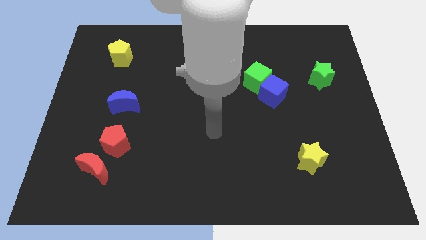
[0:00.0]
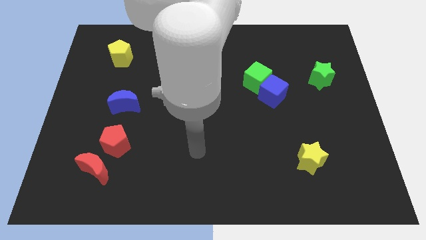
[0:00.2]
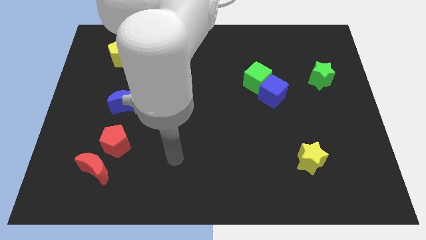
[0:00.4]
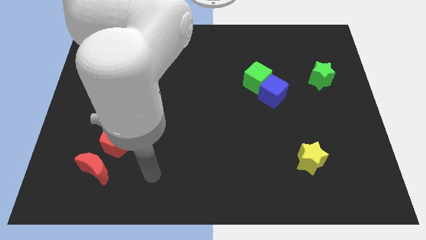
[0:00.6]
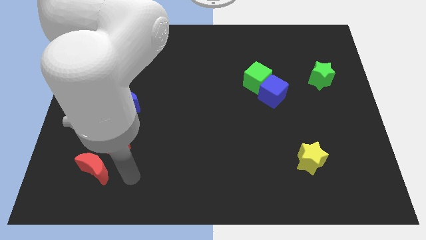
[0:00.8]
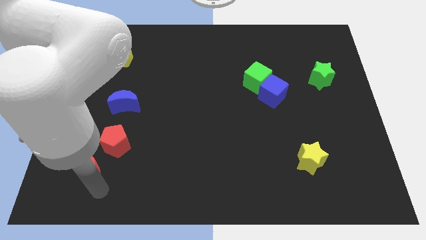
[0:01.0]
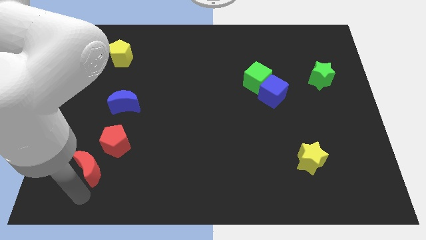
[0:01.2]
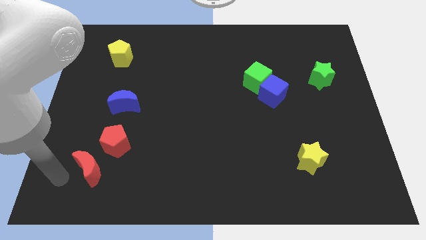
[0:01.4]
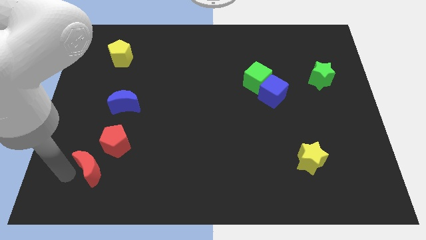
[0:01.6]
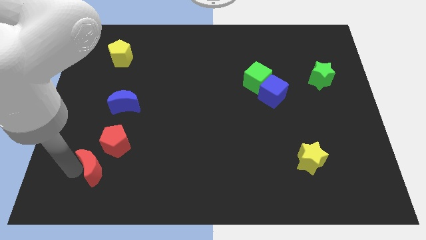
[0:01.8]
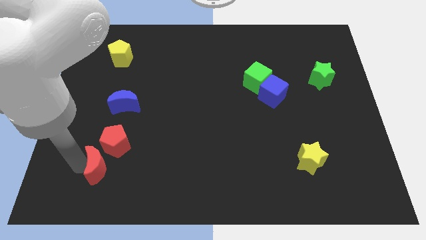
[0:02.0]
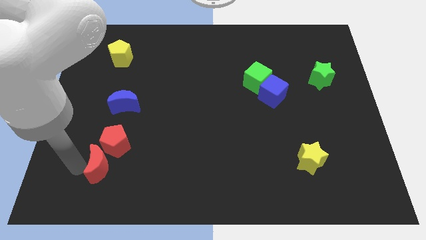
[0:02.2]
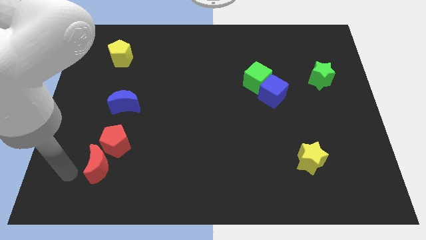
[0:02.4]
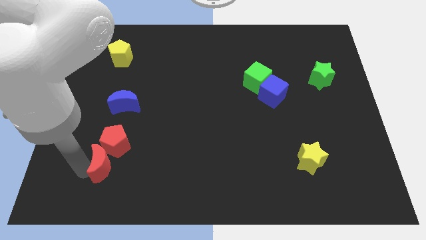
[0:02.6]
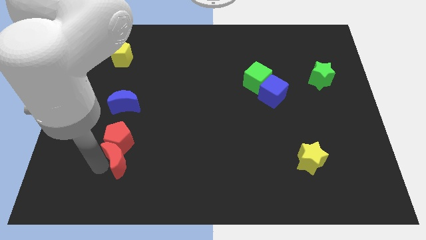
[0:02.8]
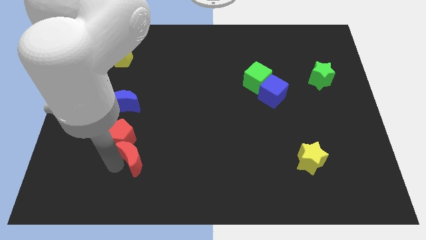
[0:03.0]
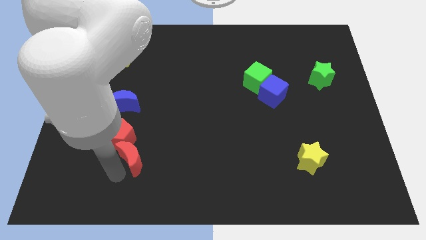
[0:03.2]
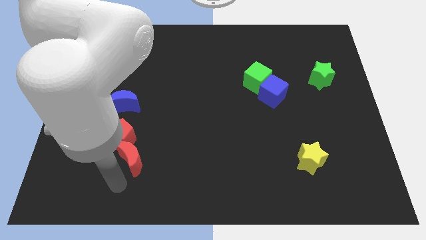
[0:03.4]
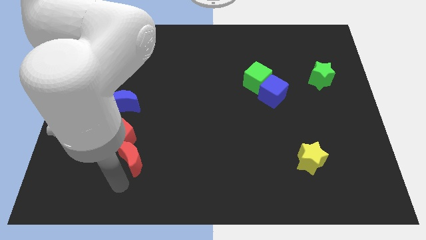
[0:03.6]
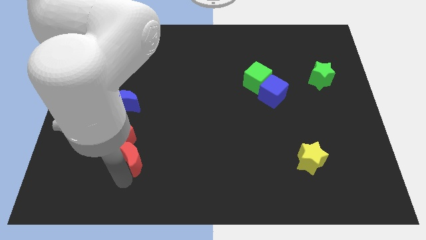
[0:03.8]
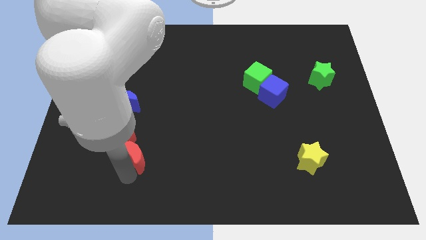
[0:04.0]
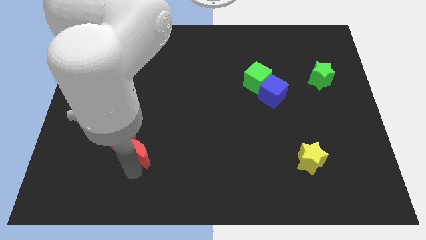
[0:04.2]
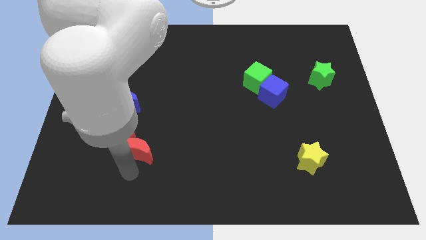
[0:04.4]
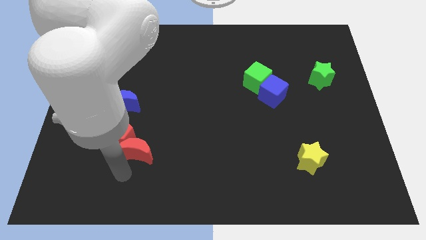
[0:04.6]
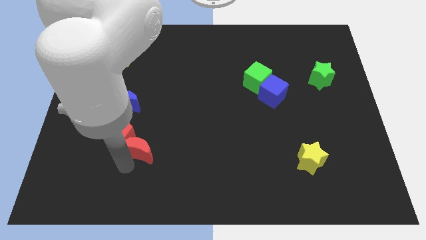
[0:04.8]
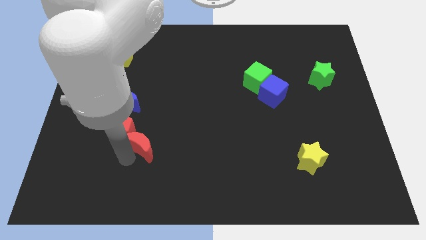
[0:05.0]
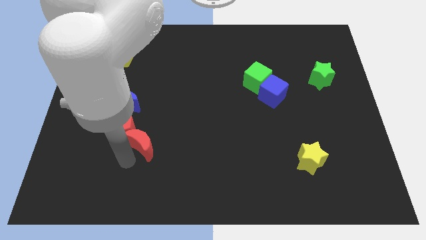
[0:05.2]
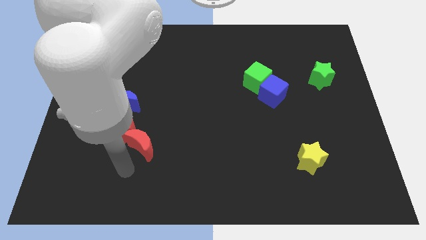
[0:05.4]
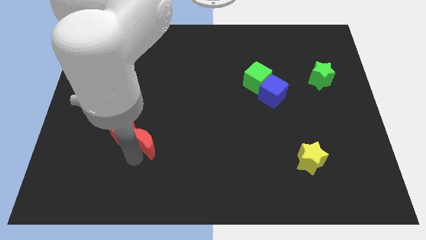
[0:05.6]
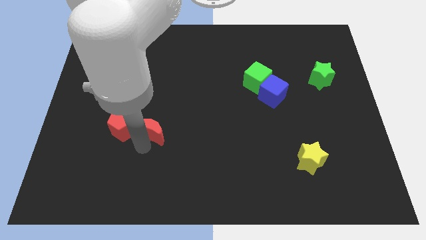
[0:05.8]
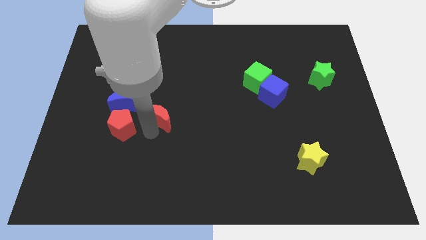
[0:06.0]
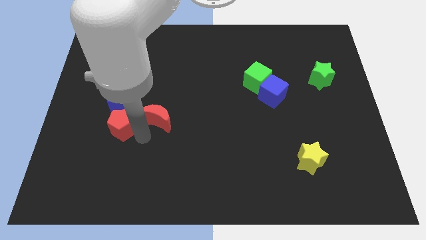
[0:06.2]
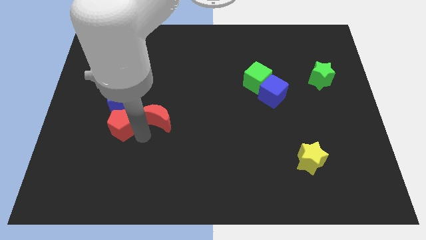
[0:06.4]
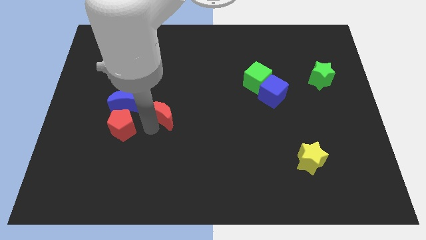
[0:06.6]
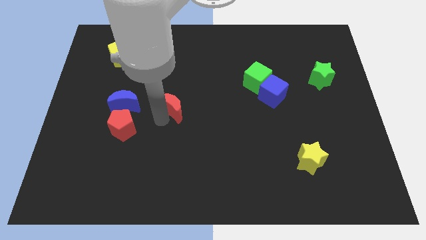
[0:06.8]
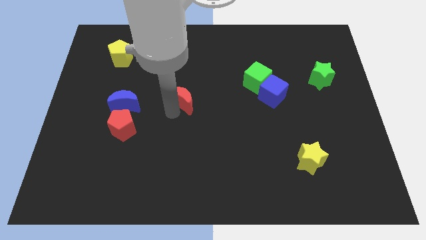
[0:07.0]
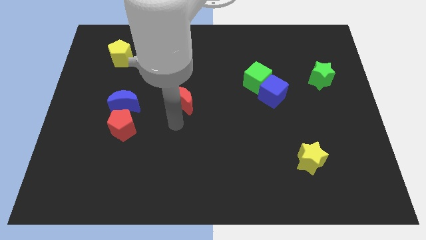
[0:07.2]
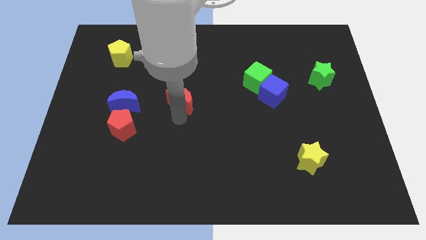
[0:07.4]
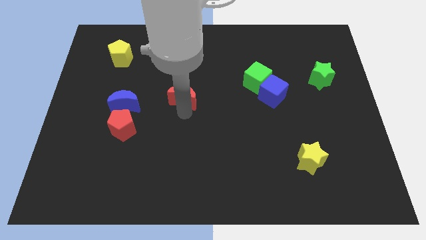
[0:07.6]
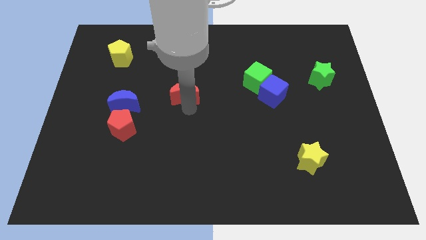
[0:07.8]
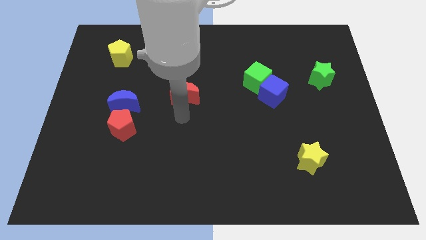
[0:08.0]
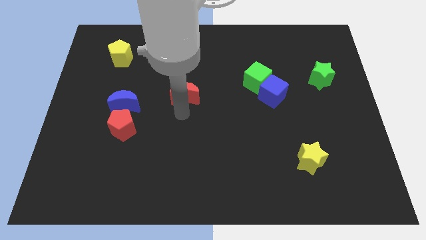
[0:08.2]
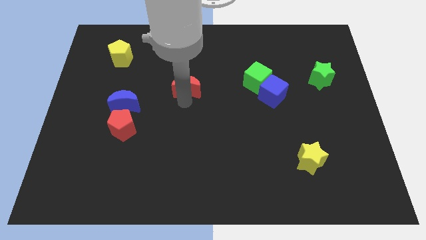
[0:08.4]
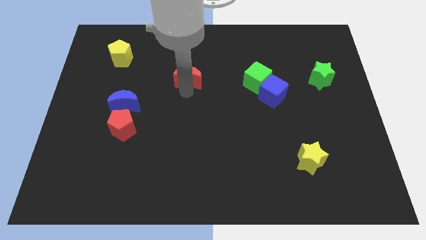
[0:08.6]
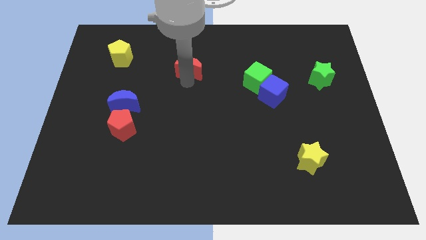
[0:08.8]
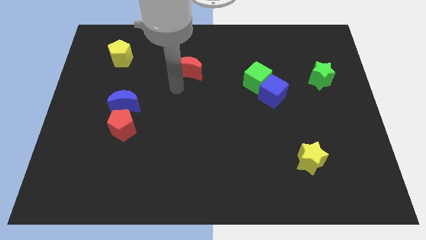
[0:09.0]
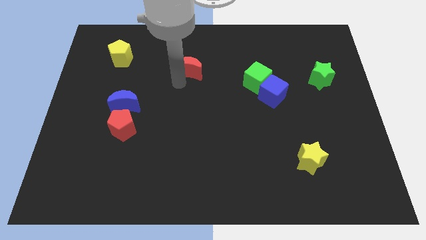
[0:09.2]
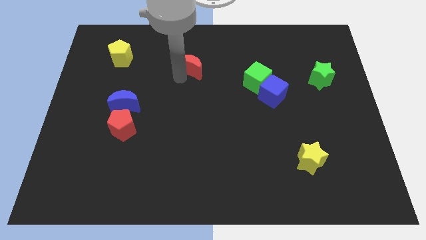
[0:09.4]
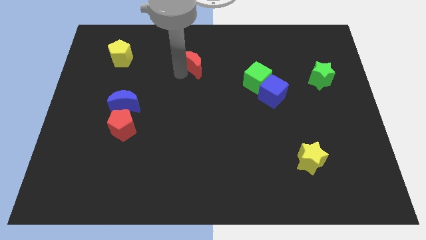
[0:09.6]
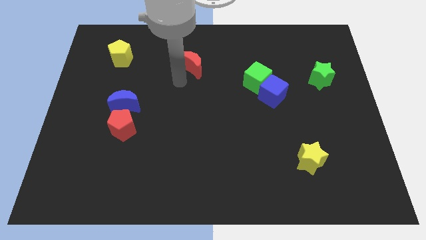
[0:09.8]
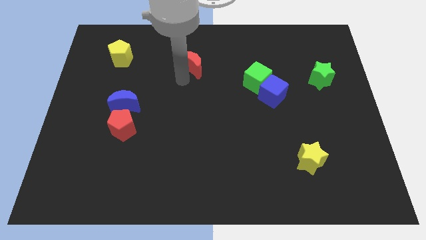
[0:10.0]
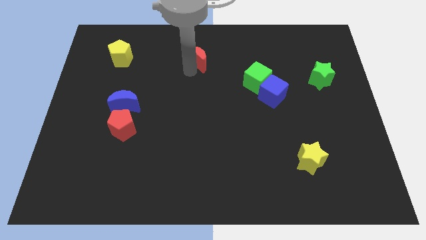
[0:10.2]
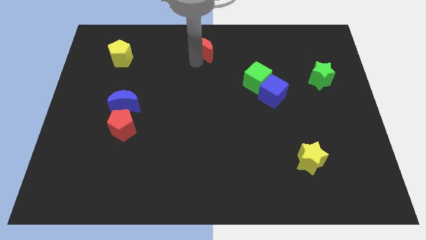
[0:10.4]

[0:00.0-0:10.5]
move the red moon to the top side

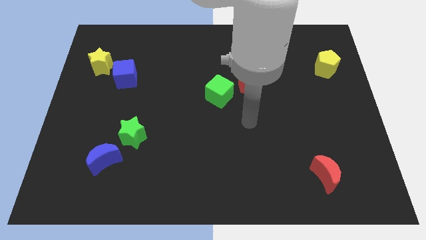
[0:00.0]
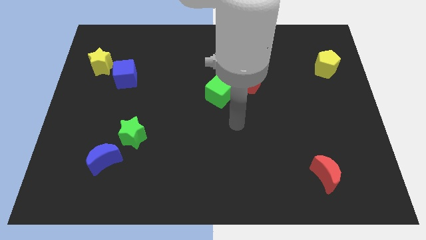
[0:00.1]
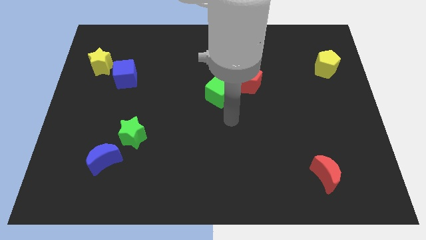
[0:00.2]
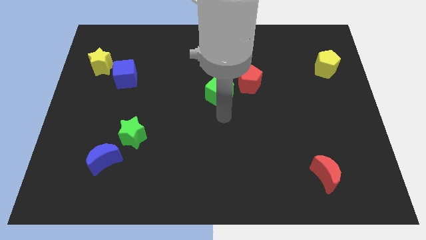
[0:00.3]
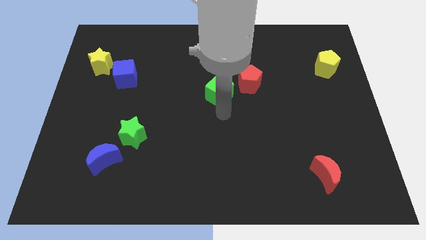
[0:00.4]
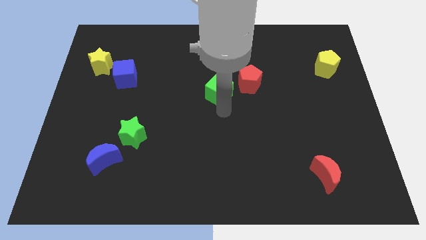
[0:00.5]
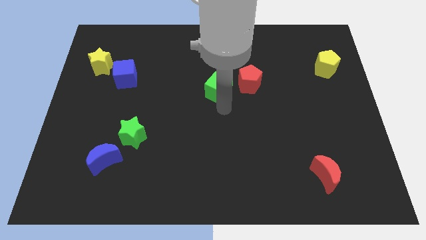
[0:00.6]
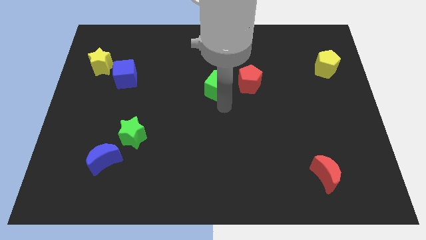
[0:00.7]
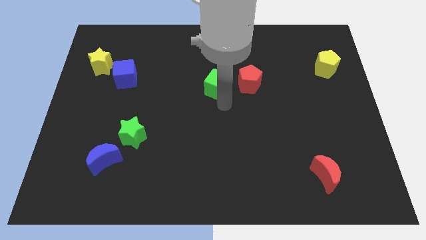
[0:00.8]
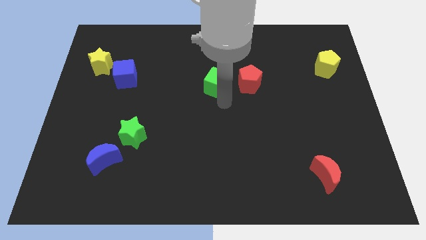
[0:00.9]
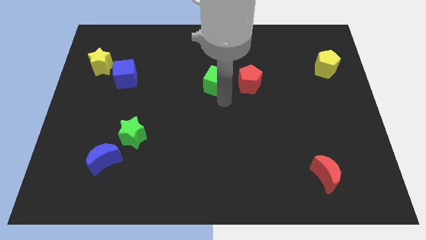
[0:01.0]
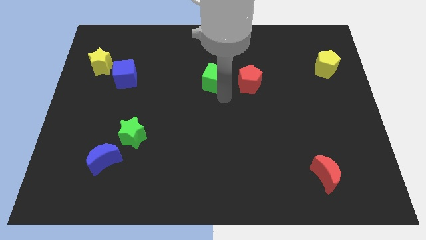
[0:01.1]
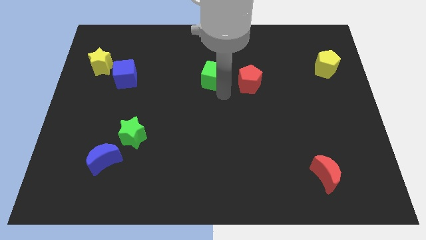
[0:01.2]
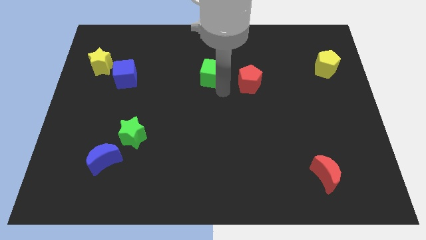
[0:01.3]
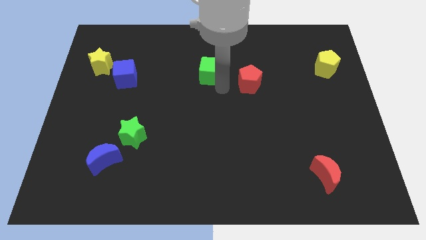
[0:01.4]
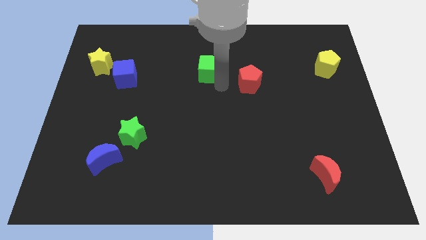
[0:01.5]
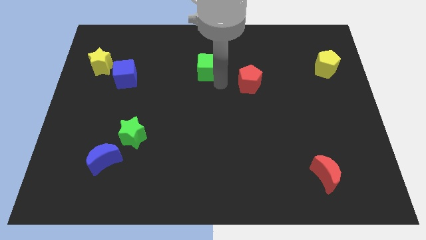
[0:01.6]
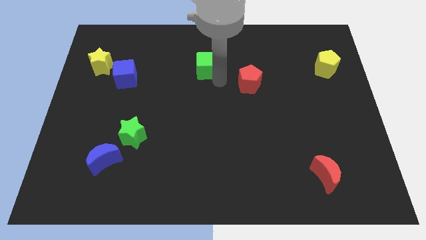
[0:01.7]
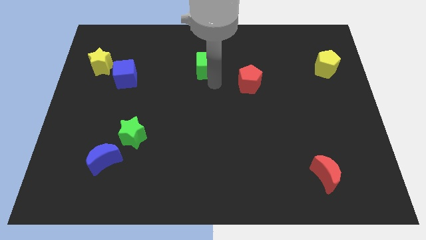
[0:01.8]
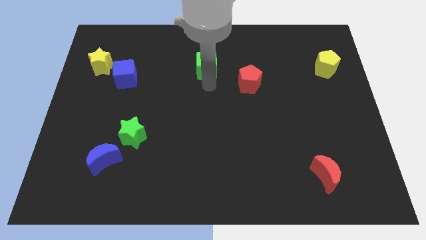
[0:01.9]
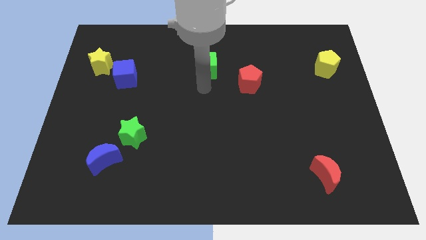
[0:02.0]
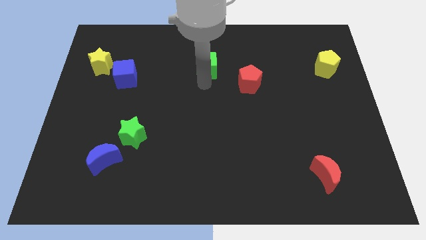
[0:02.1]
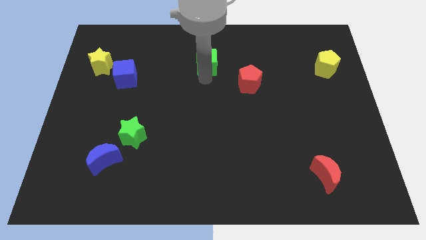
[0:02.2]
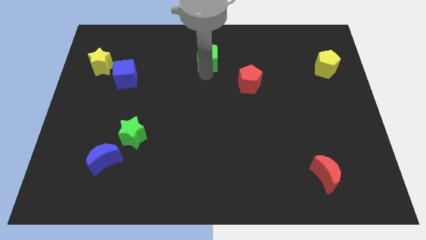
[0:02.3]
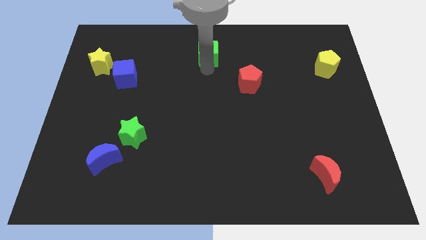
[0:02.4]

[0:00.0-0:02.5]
push the green cube to the top side

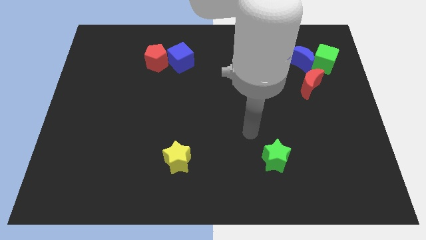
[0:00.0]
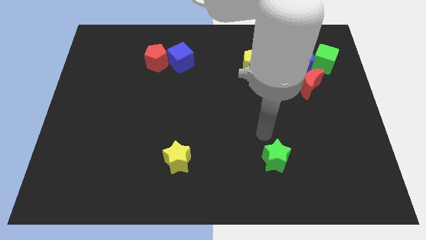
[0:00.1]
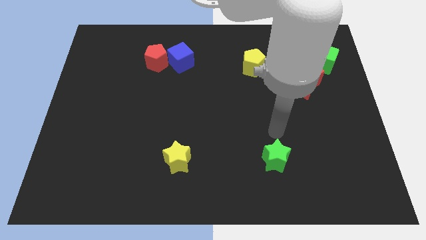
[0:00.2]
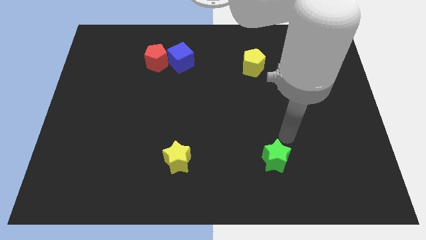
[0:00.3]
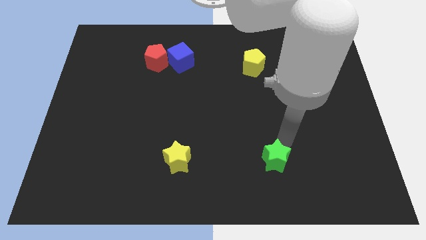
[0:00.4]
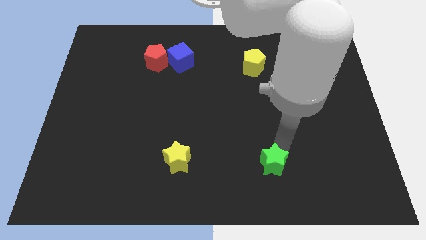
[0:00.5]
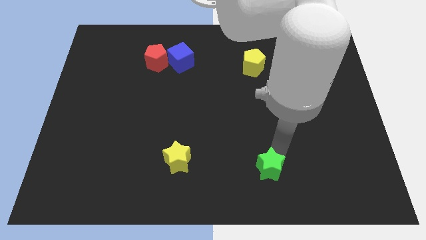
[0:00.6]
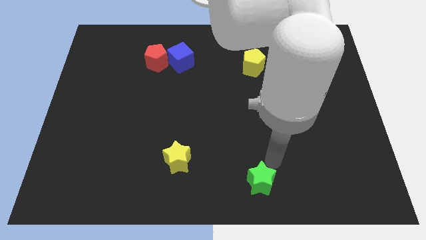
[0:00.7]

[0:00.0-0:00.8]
slide the green star to the bottom side
